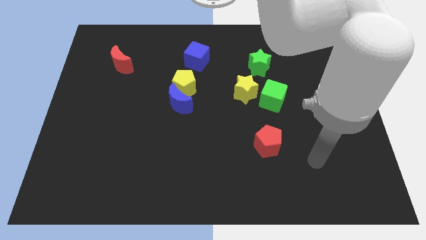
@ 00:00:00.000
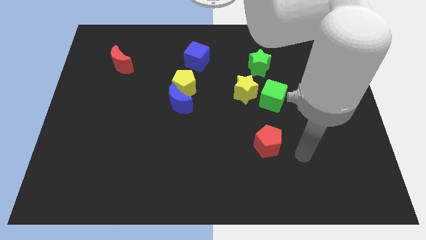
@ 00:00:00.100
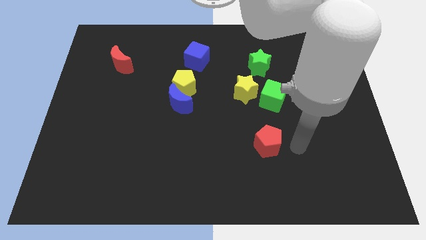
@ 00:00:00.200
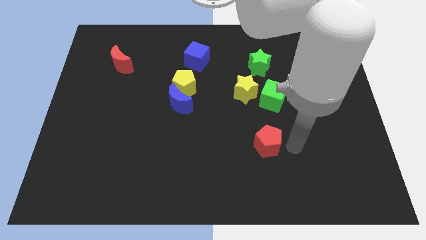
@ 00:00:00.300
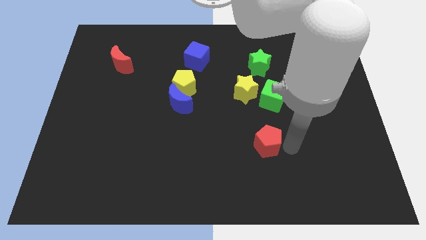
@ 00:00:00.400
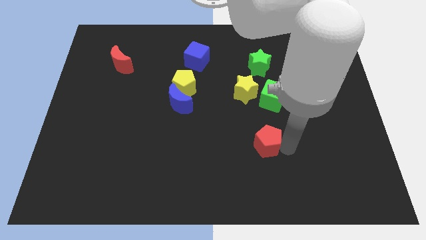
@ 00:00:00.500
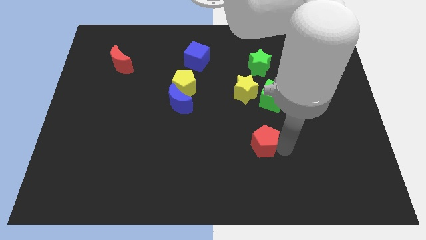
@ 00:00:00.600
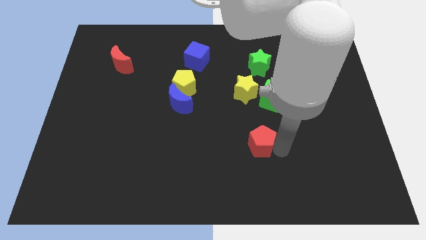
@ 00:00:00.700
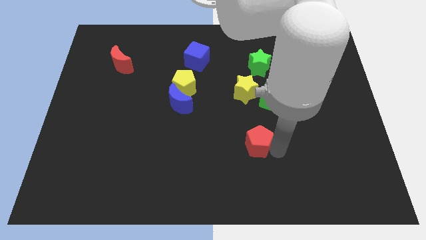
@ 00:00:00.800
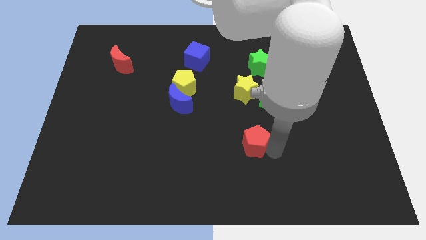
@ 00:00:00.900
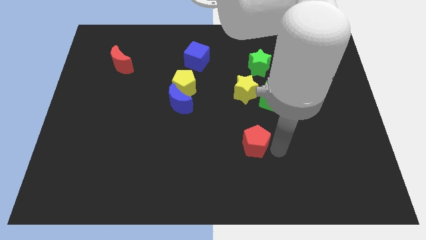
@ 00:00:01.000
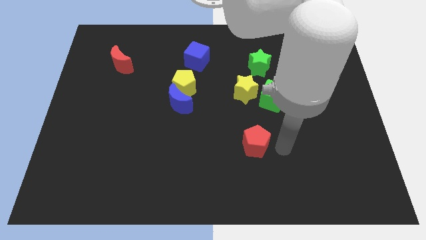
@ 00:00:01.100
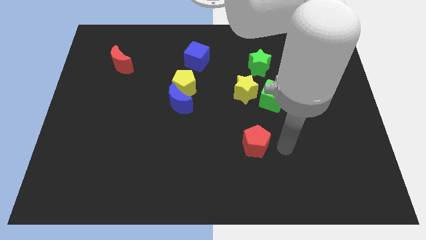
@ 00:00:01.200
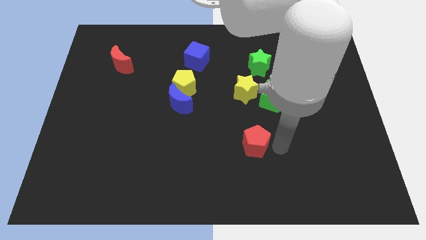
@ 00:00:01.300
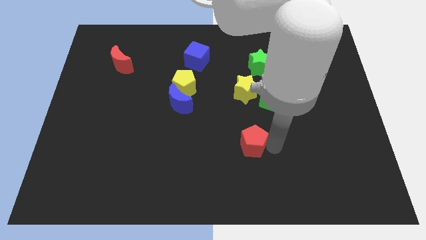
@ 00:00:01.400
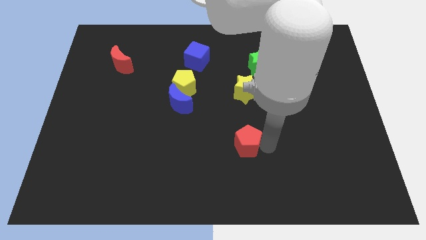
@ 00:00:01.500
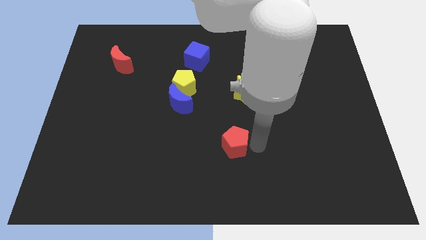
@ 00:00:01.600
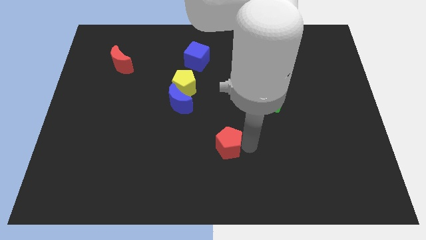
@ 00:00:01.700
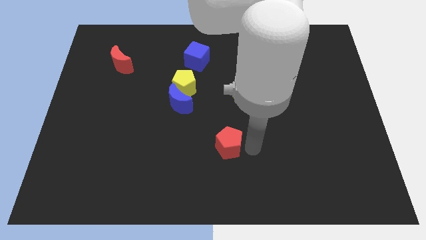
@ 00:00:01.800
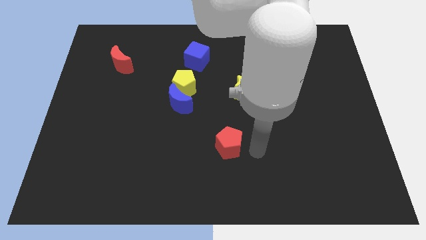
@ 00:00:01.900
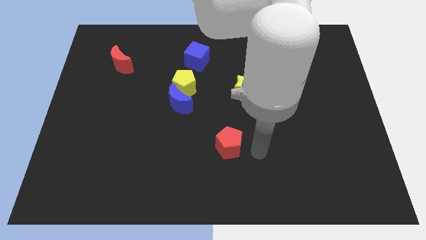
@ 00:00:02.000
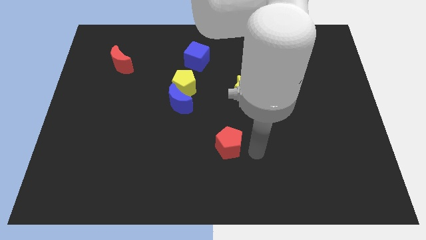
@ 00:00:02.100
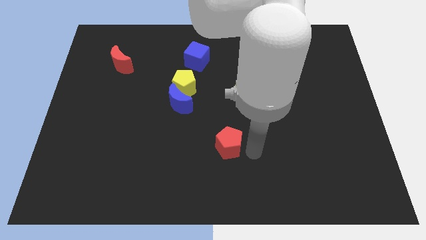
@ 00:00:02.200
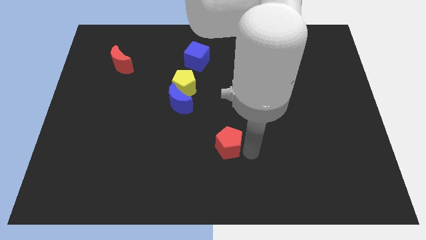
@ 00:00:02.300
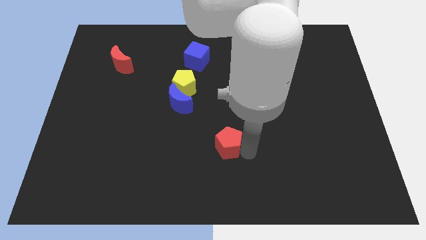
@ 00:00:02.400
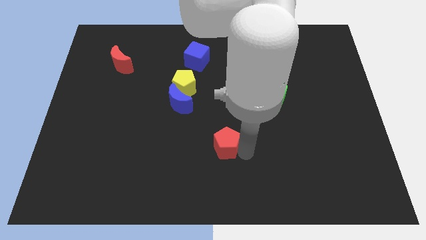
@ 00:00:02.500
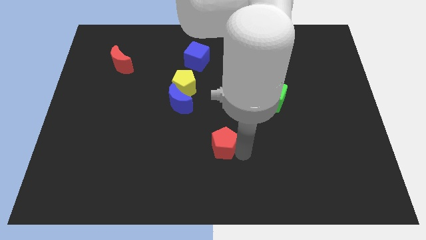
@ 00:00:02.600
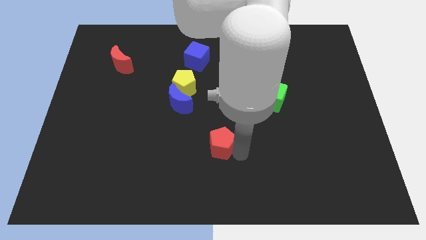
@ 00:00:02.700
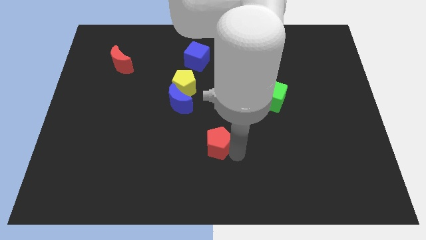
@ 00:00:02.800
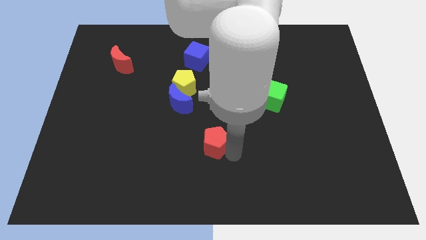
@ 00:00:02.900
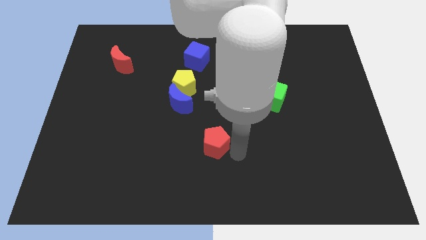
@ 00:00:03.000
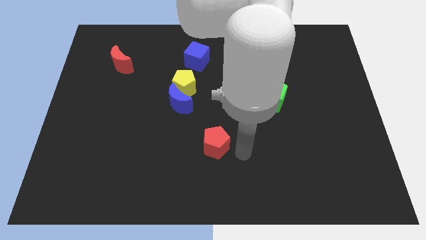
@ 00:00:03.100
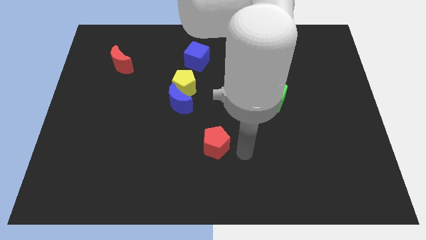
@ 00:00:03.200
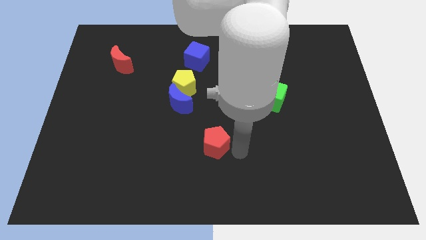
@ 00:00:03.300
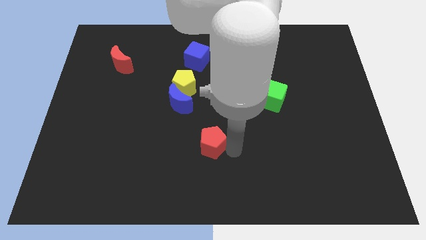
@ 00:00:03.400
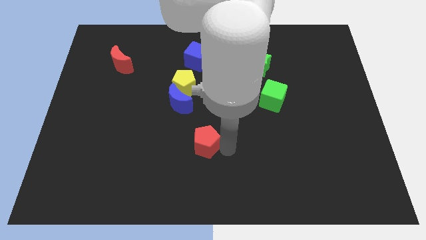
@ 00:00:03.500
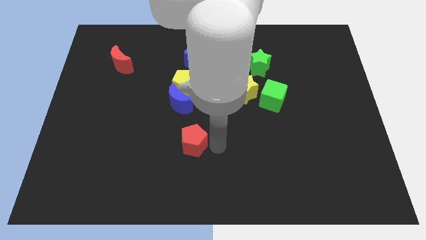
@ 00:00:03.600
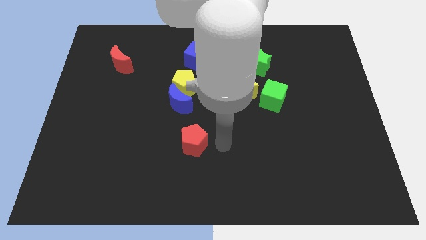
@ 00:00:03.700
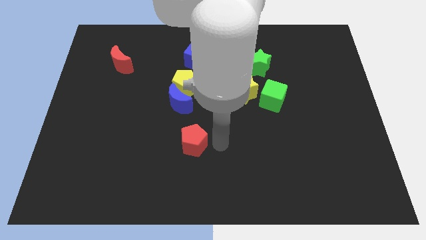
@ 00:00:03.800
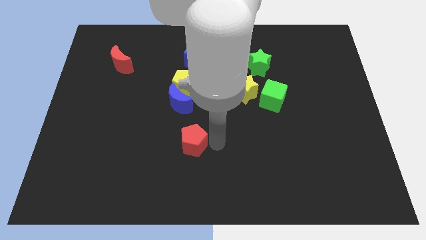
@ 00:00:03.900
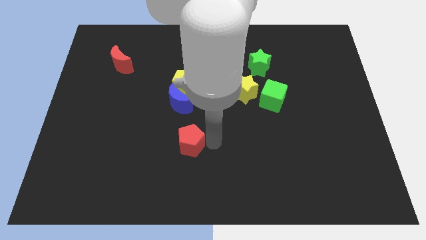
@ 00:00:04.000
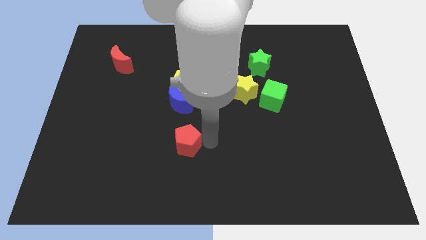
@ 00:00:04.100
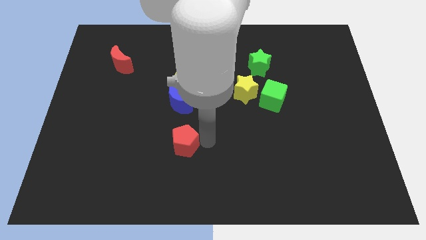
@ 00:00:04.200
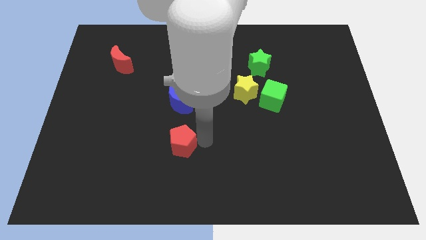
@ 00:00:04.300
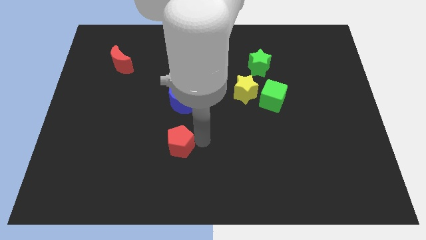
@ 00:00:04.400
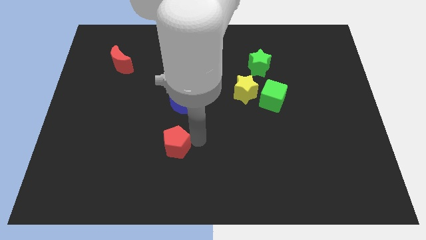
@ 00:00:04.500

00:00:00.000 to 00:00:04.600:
move the red pentagon to the left

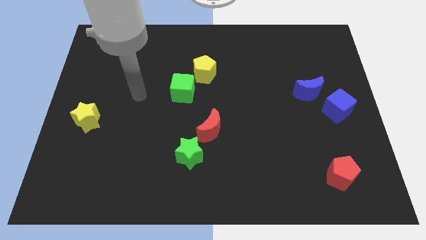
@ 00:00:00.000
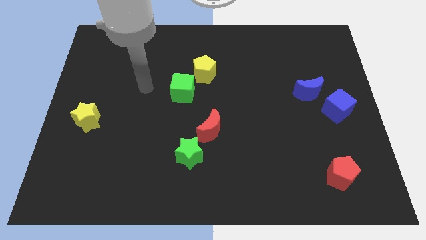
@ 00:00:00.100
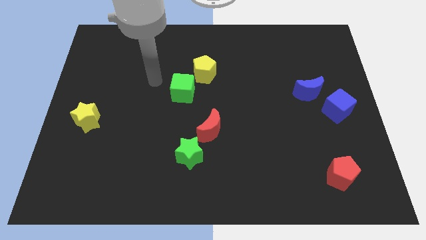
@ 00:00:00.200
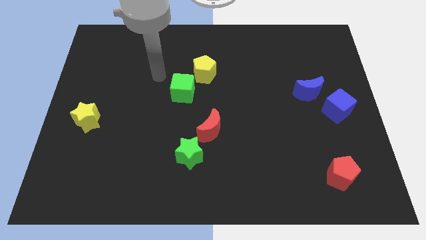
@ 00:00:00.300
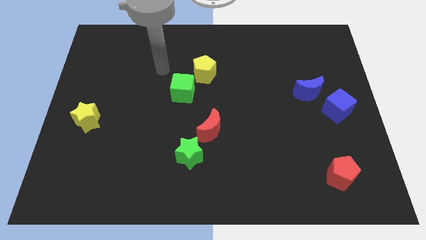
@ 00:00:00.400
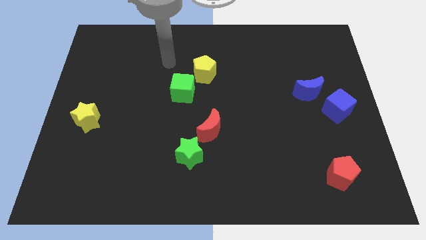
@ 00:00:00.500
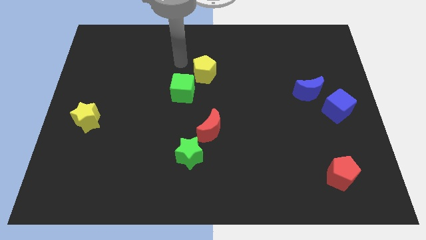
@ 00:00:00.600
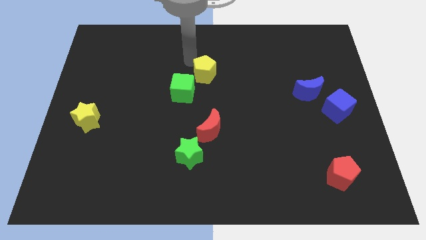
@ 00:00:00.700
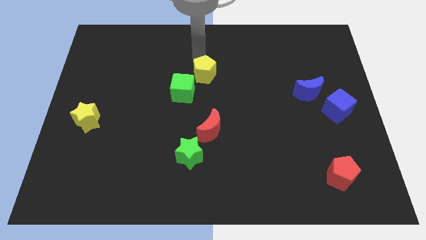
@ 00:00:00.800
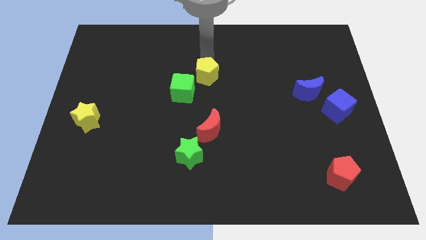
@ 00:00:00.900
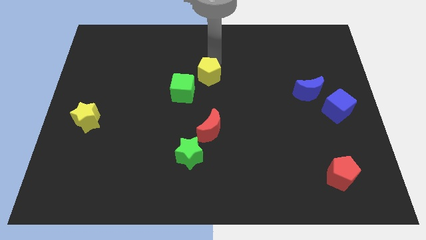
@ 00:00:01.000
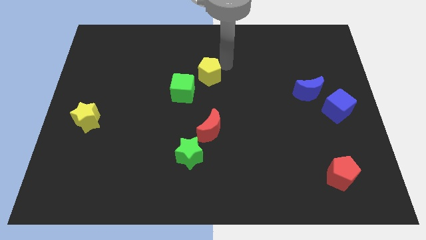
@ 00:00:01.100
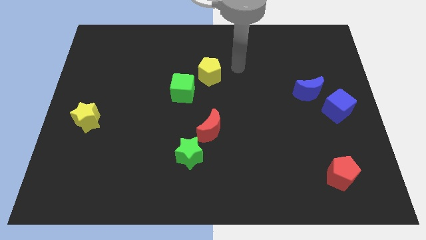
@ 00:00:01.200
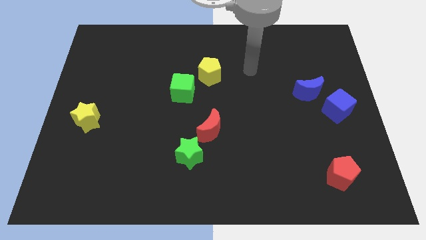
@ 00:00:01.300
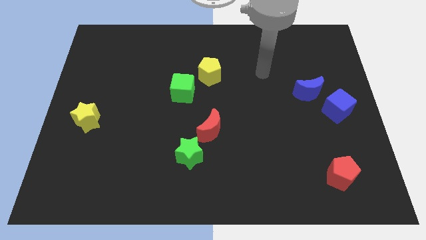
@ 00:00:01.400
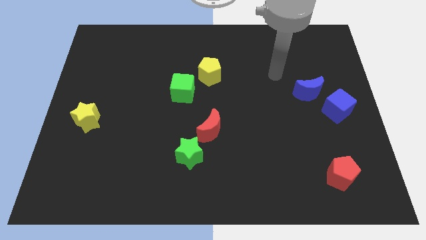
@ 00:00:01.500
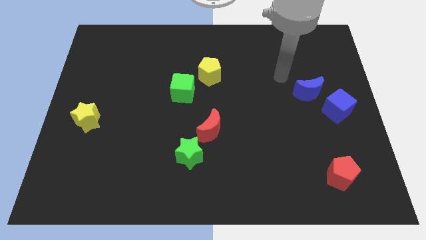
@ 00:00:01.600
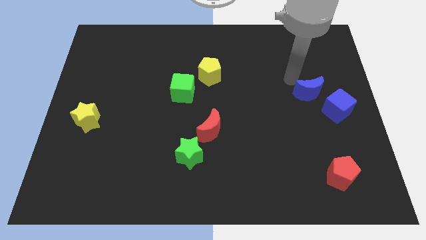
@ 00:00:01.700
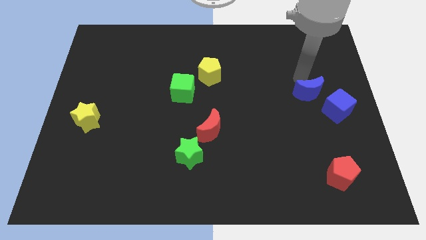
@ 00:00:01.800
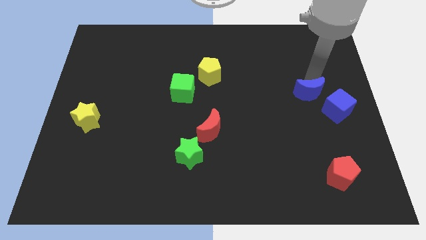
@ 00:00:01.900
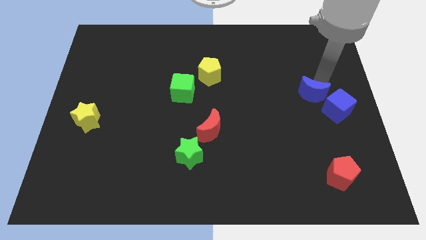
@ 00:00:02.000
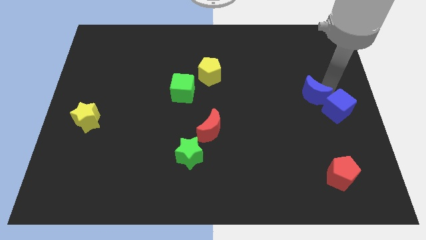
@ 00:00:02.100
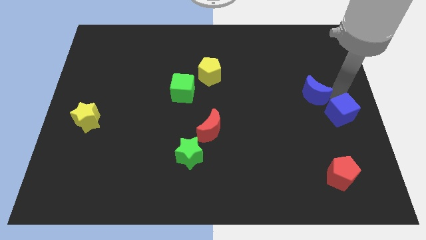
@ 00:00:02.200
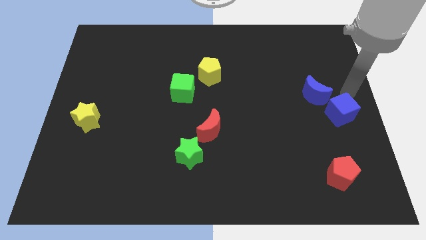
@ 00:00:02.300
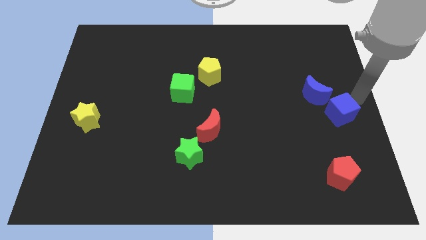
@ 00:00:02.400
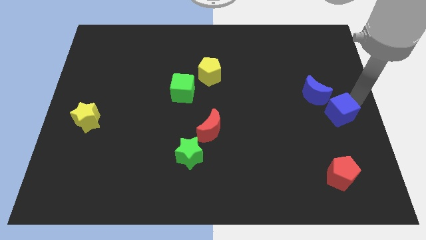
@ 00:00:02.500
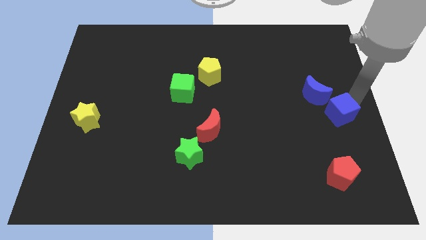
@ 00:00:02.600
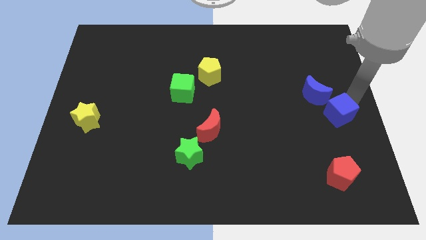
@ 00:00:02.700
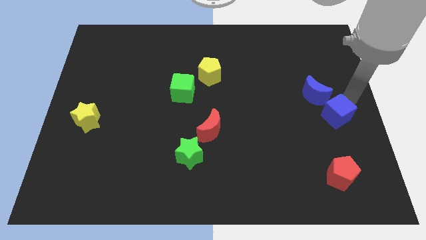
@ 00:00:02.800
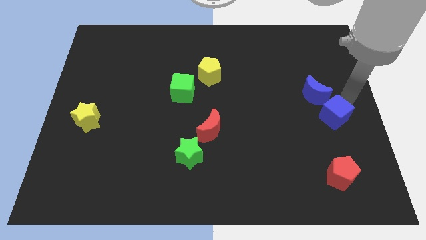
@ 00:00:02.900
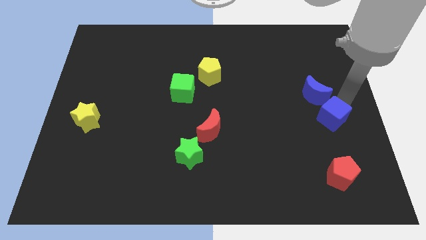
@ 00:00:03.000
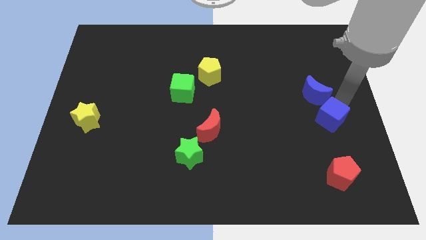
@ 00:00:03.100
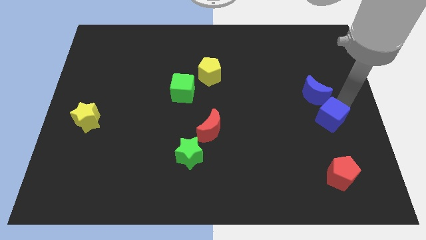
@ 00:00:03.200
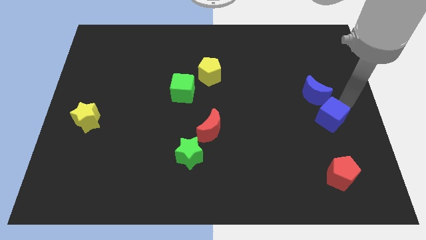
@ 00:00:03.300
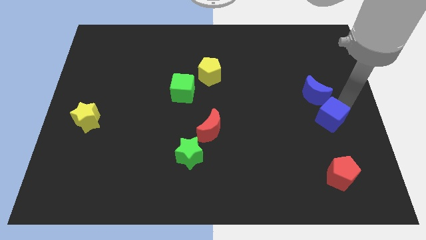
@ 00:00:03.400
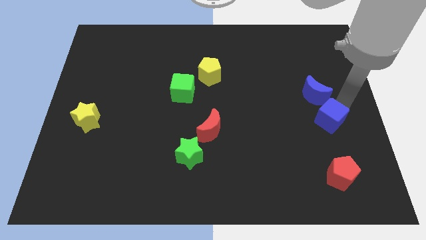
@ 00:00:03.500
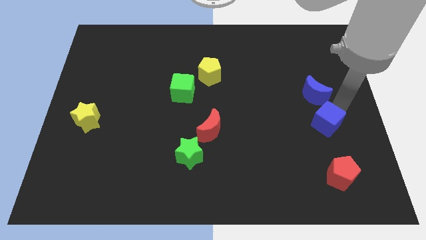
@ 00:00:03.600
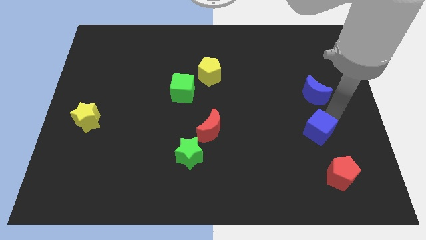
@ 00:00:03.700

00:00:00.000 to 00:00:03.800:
slide the blue cube slightly downwards and then left
